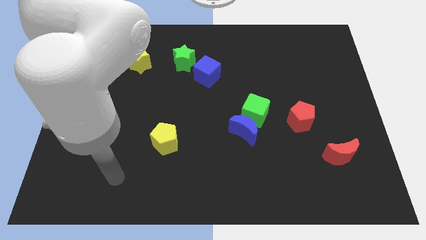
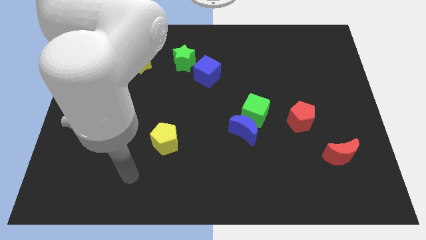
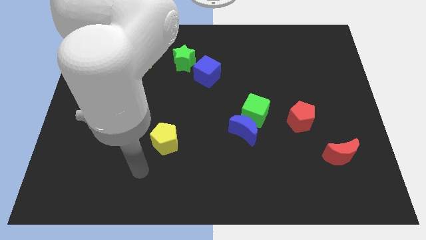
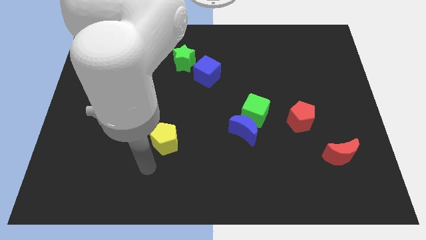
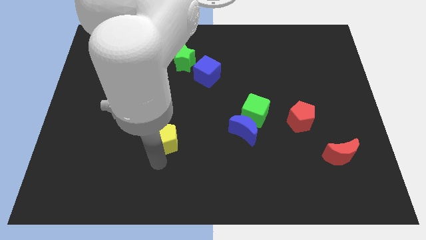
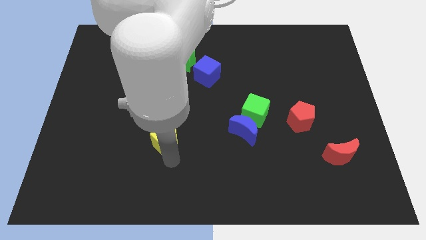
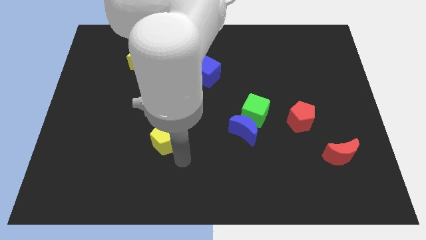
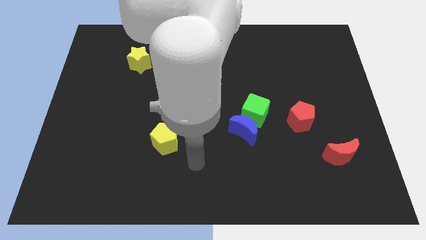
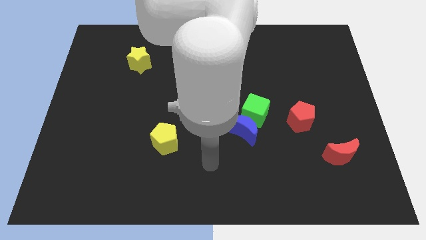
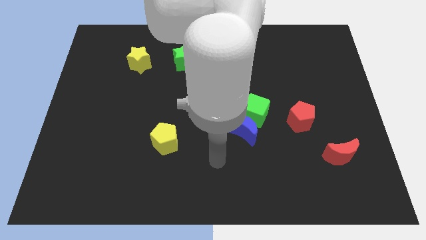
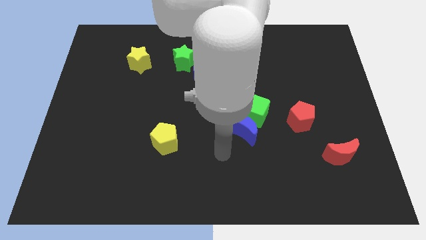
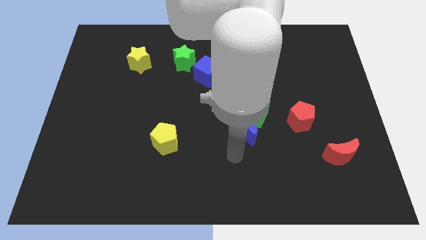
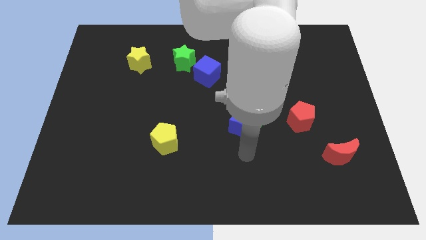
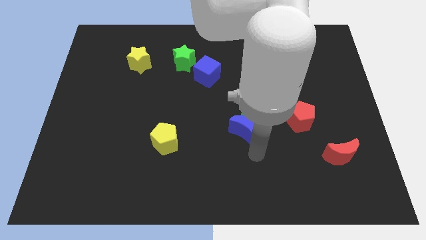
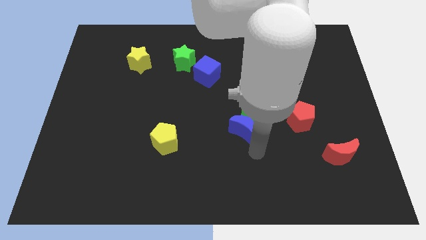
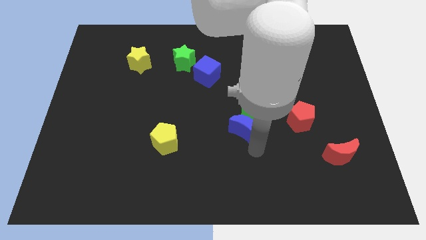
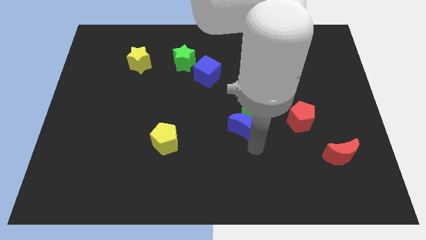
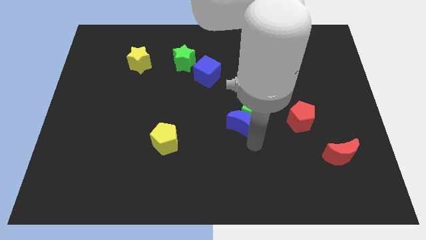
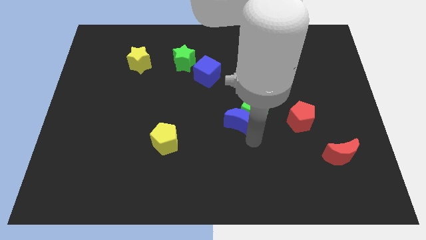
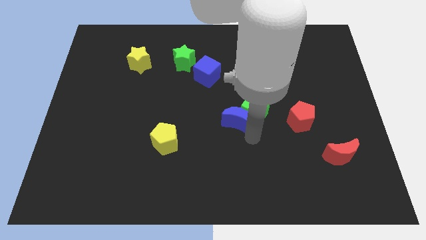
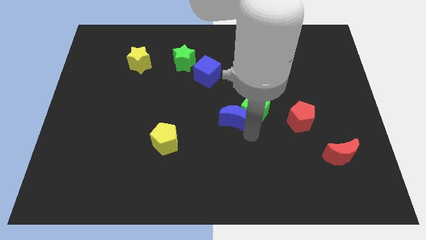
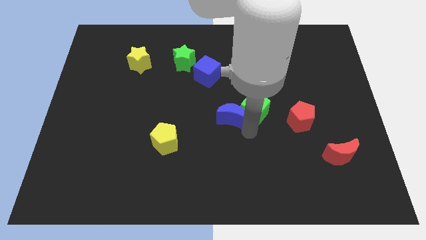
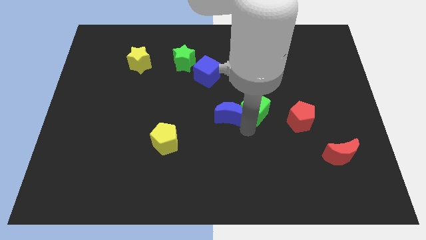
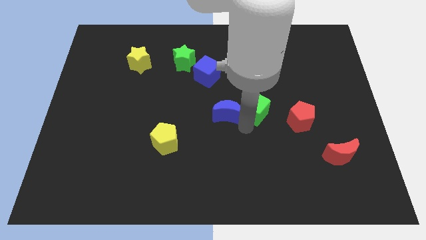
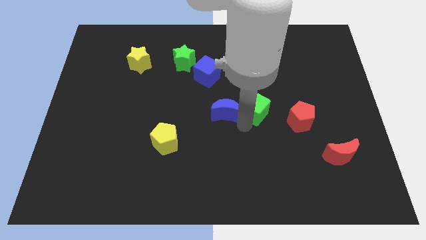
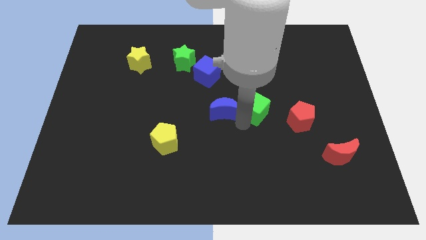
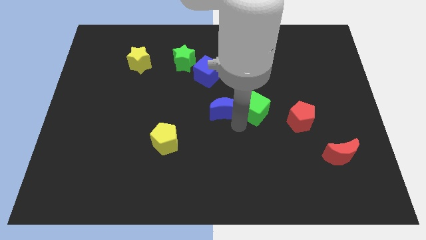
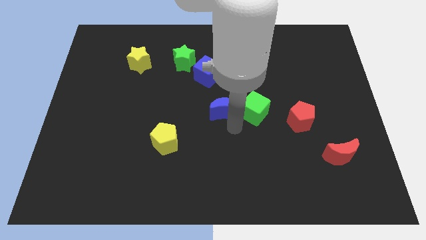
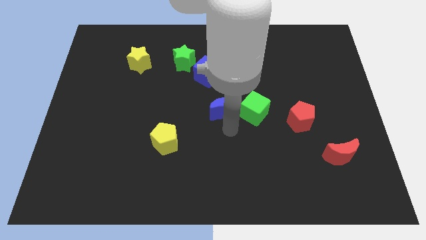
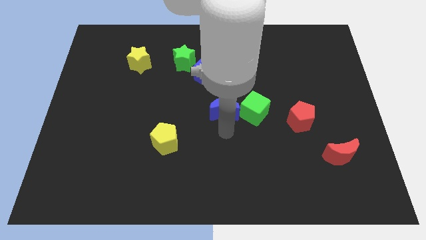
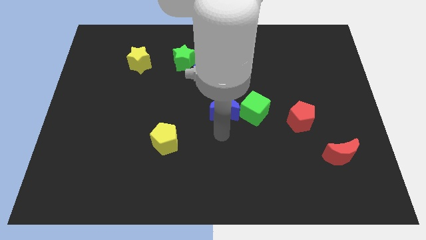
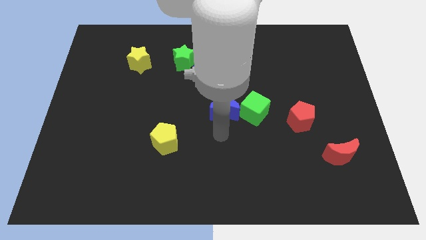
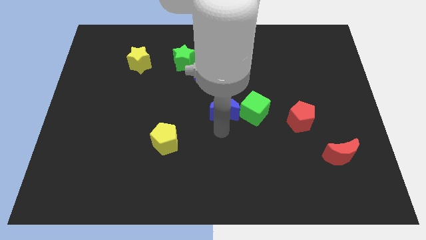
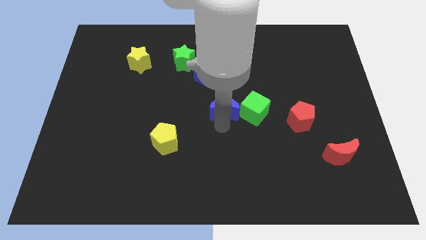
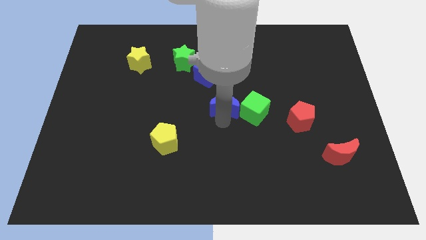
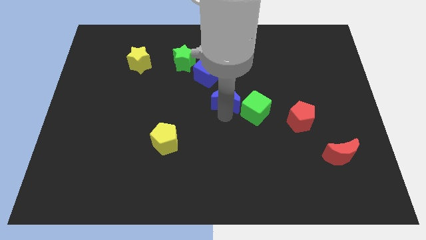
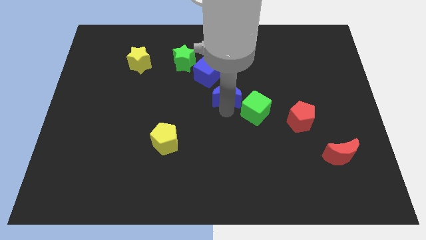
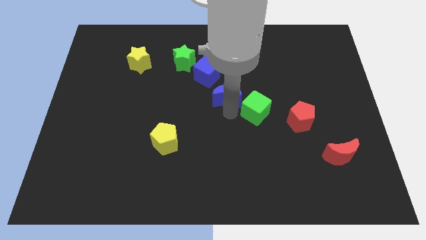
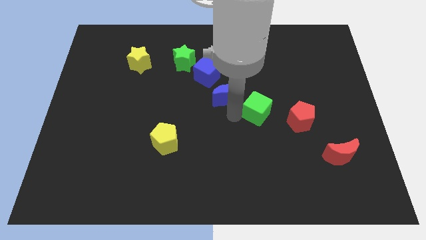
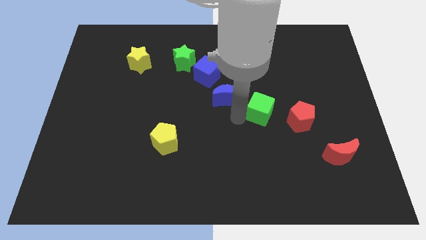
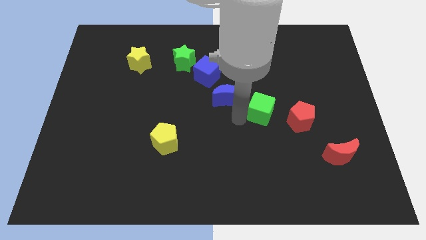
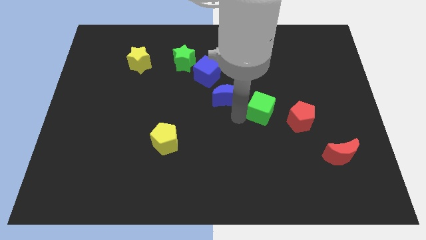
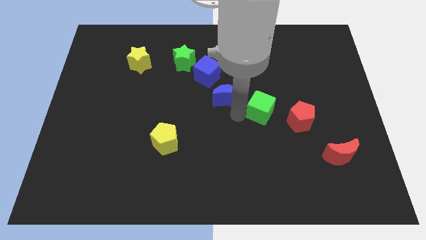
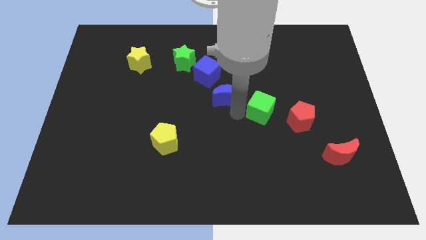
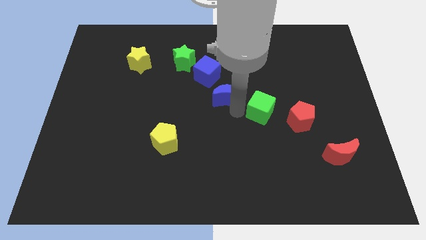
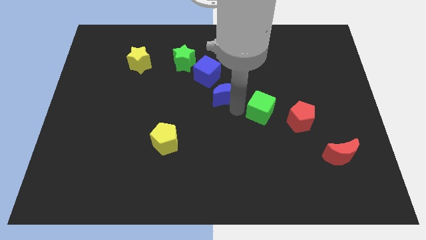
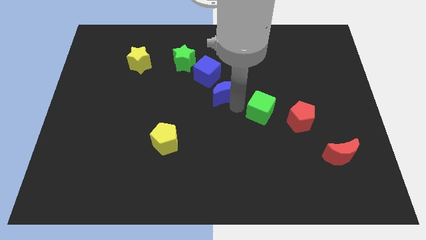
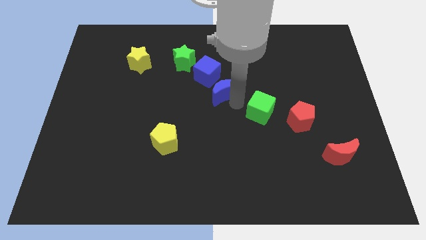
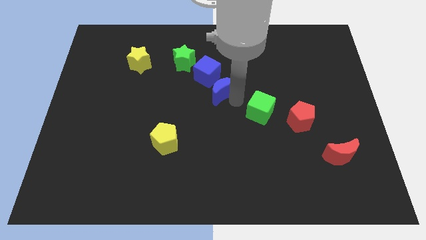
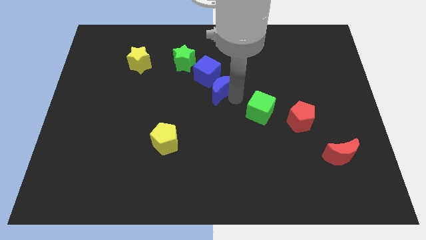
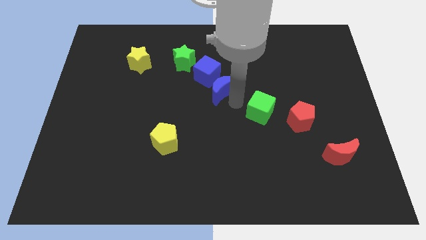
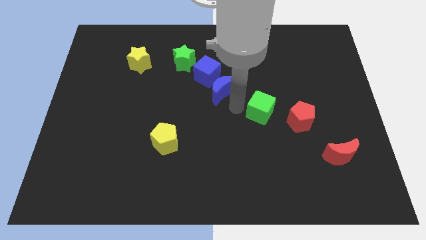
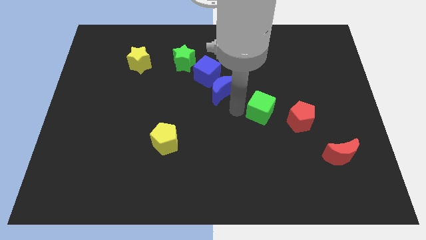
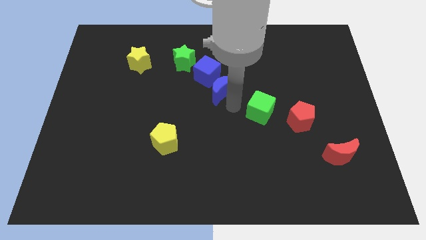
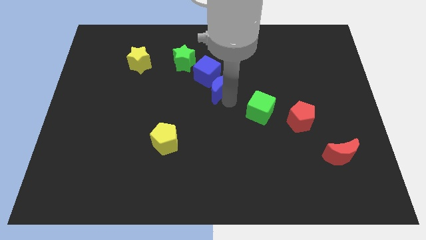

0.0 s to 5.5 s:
push the blue moon next to the blue cube

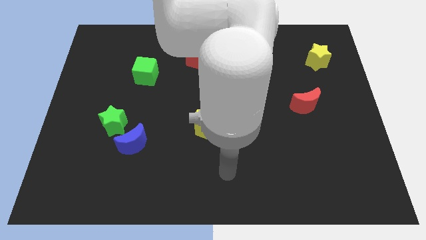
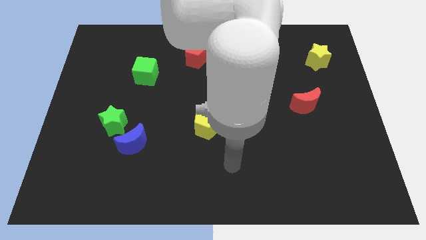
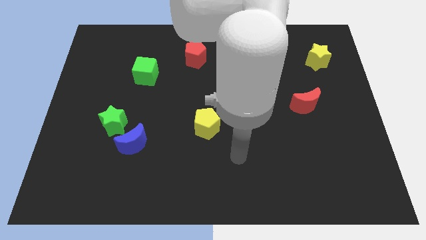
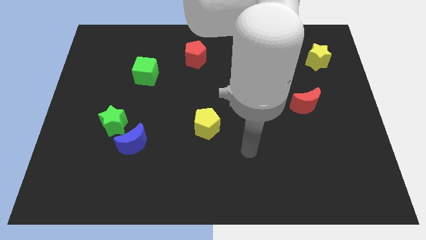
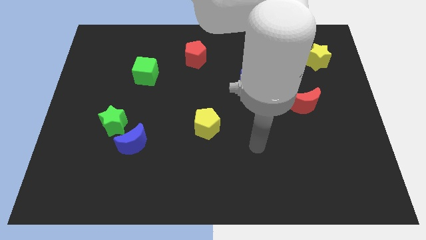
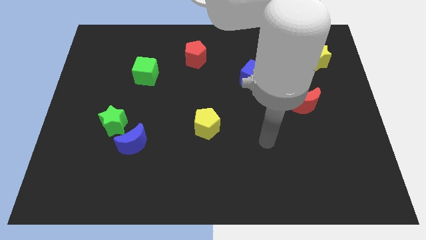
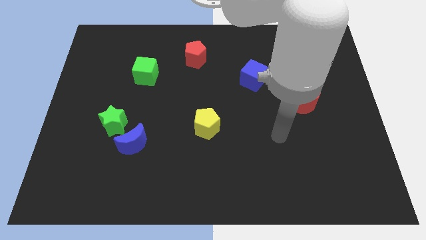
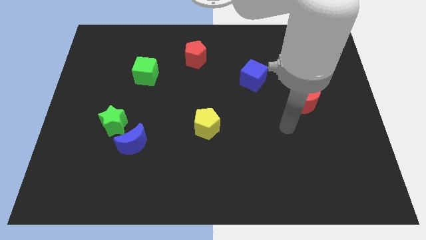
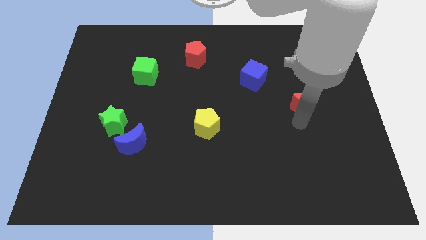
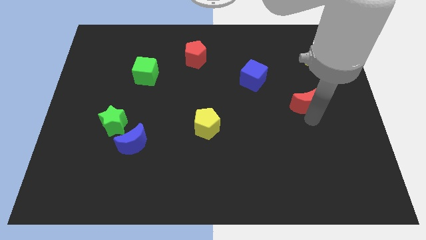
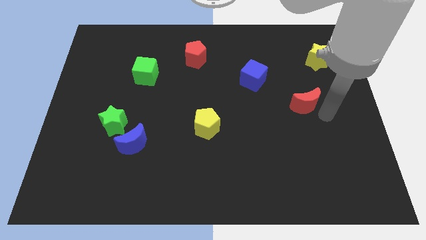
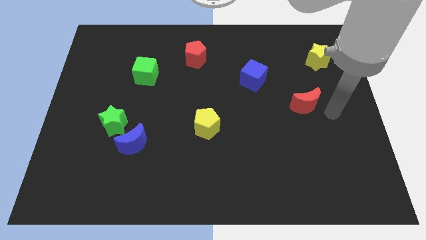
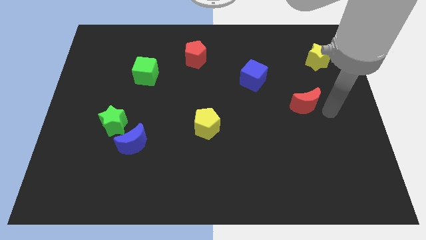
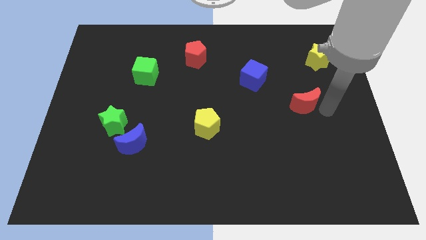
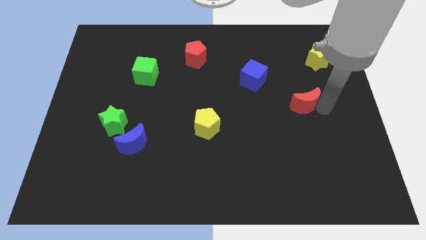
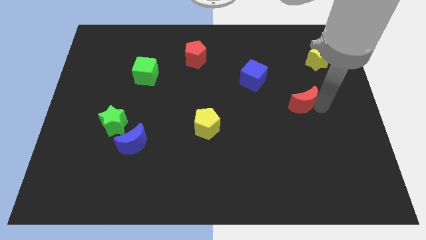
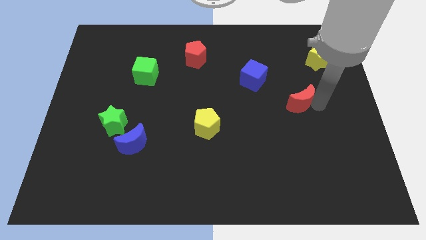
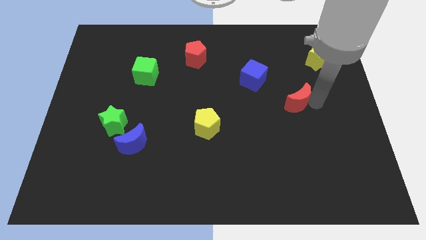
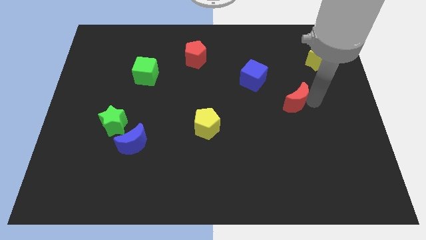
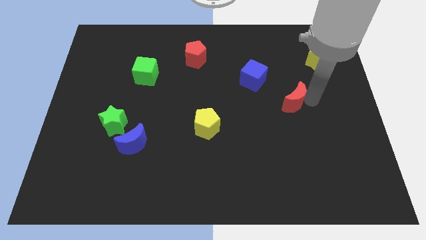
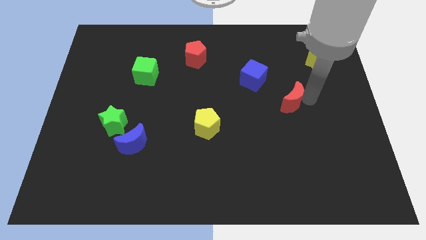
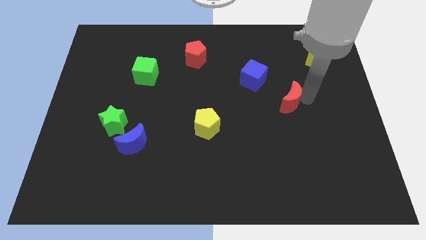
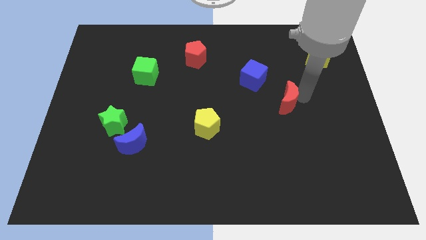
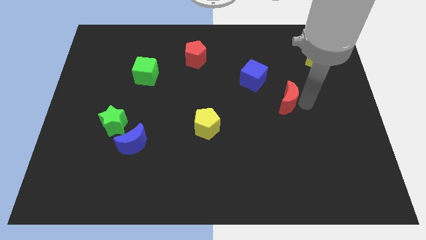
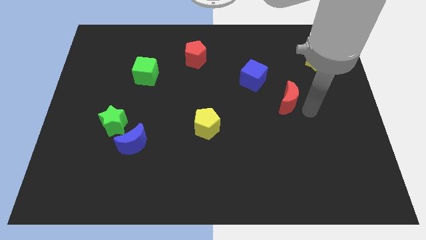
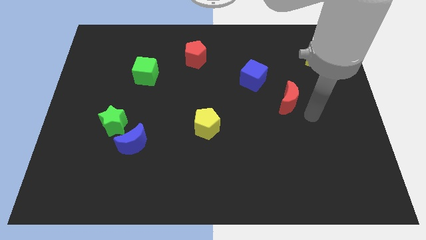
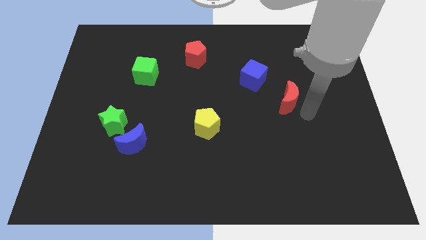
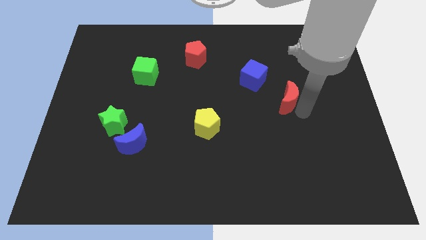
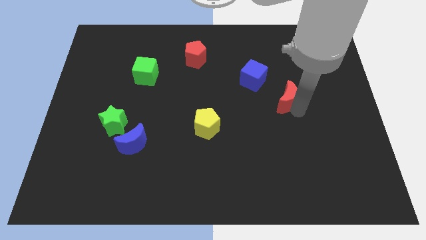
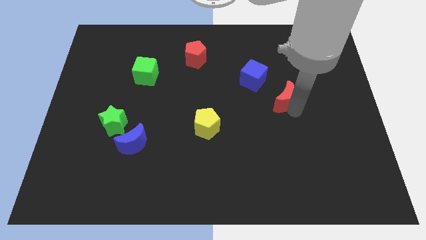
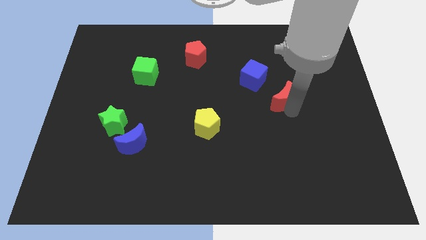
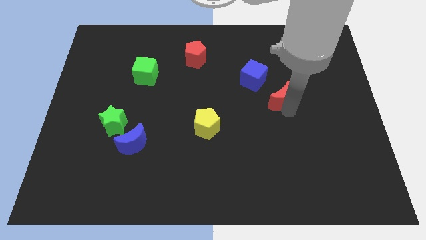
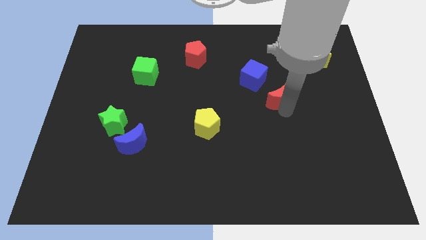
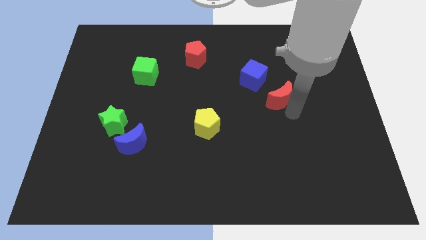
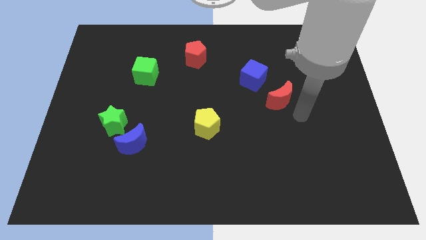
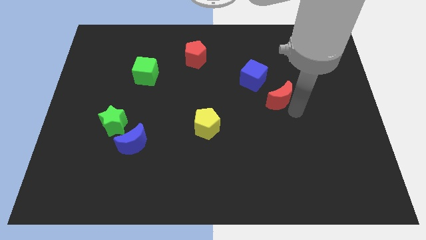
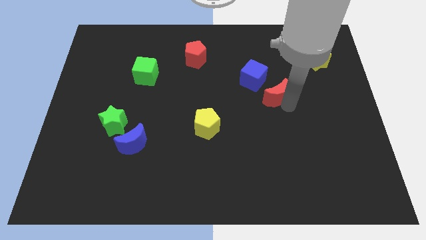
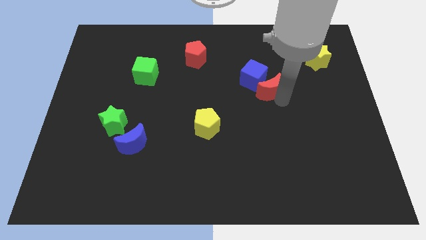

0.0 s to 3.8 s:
move the red moon towards the blue cube
